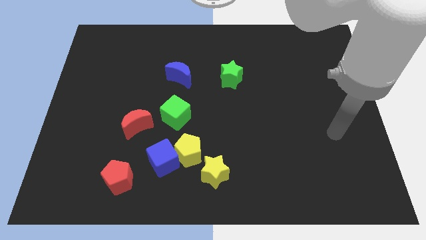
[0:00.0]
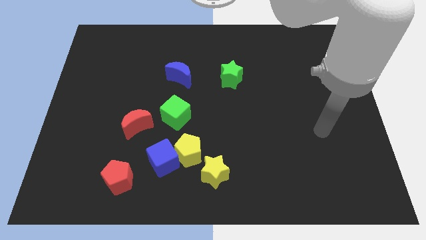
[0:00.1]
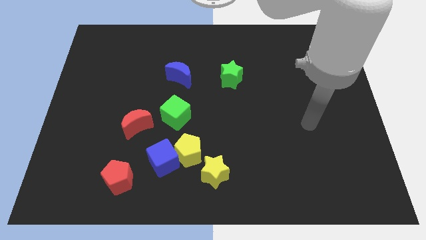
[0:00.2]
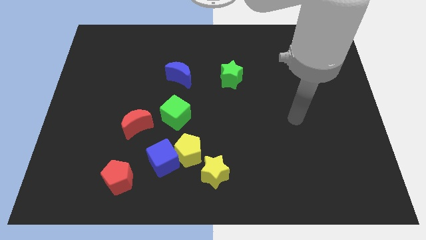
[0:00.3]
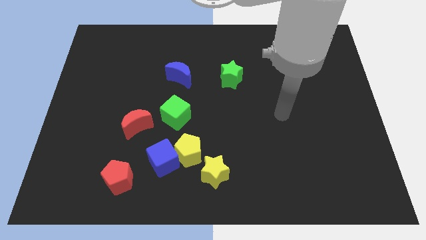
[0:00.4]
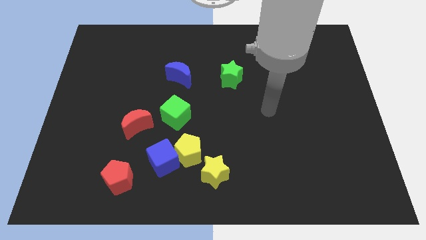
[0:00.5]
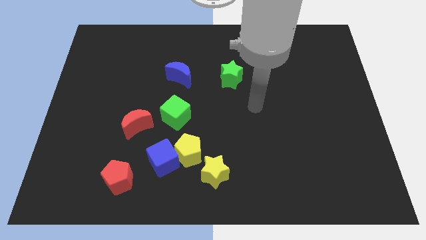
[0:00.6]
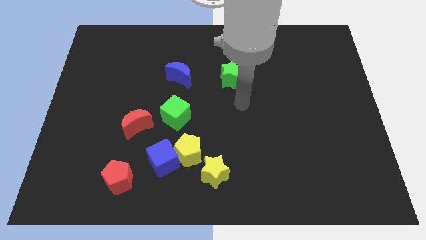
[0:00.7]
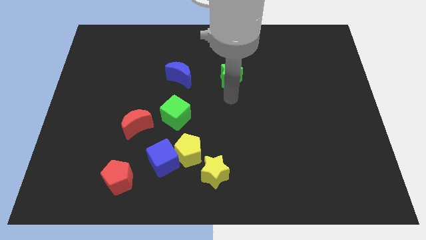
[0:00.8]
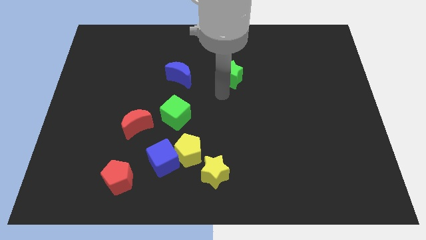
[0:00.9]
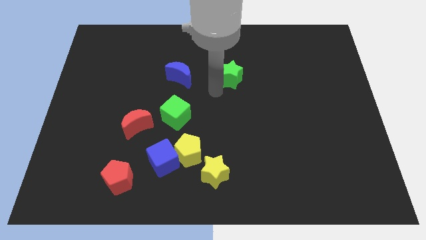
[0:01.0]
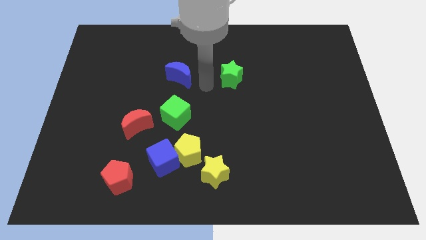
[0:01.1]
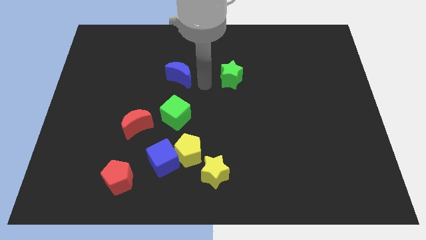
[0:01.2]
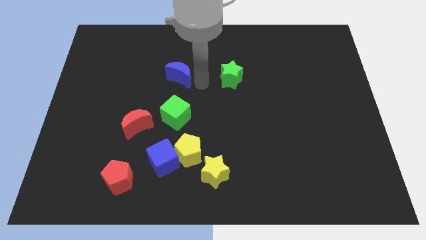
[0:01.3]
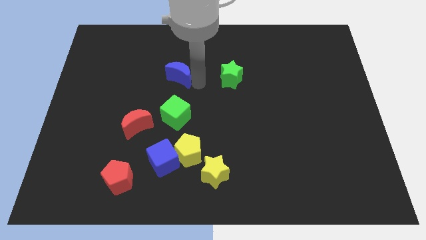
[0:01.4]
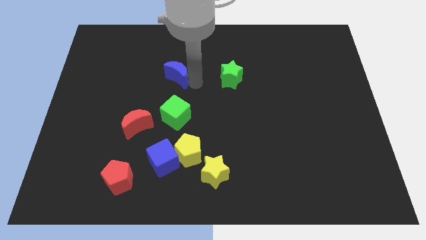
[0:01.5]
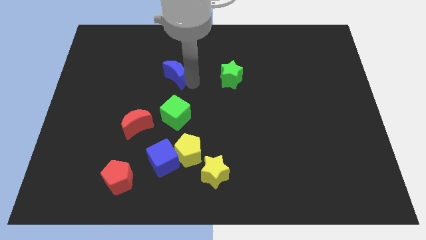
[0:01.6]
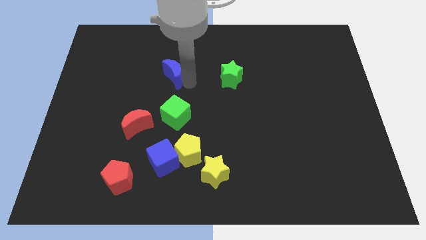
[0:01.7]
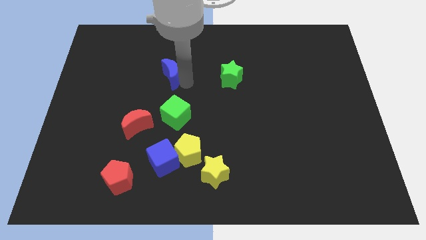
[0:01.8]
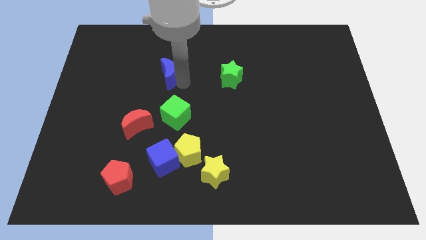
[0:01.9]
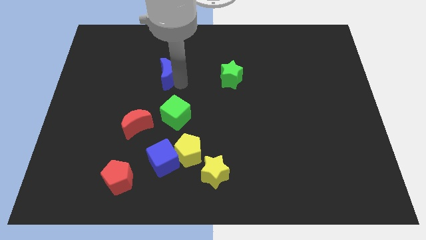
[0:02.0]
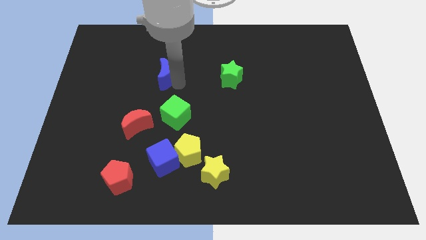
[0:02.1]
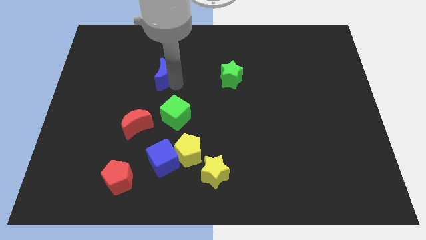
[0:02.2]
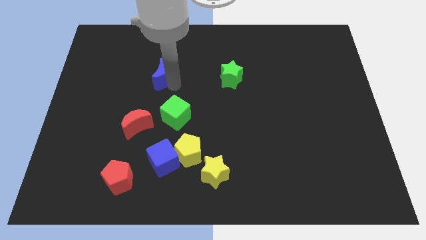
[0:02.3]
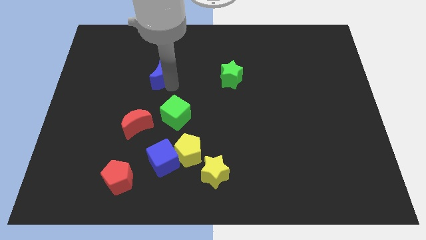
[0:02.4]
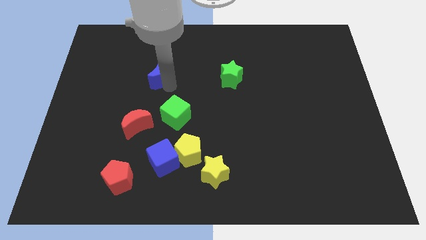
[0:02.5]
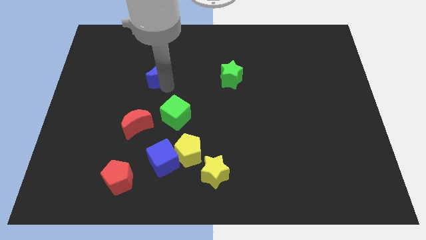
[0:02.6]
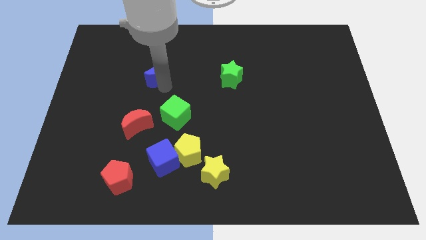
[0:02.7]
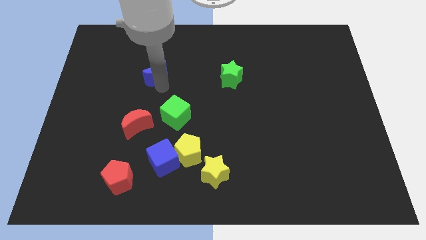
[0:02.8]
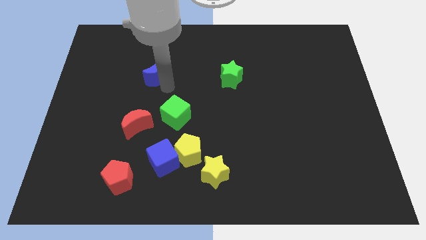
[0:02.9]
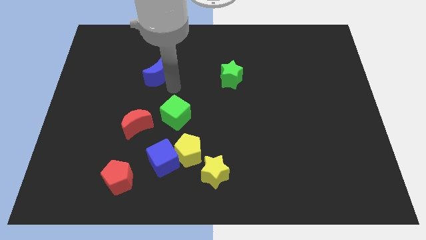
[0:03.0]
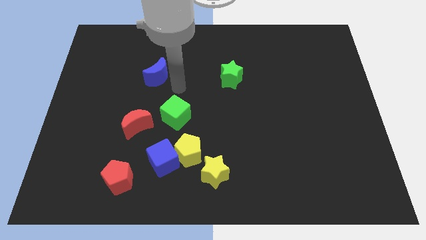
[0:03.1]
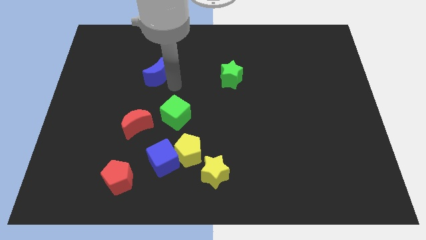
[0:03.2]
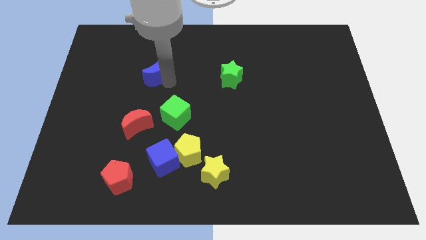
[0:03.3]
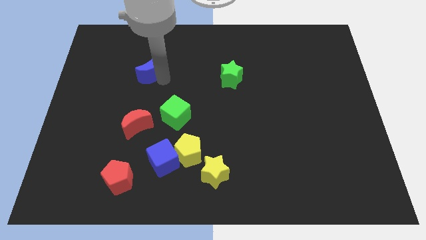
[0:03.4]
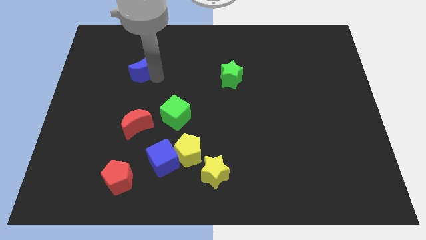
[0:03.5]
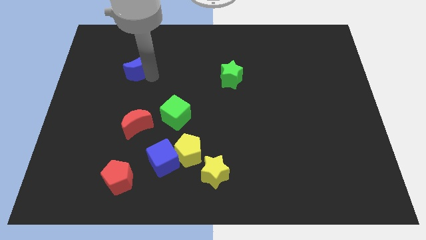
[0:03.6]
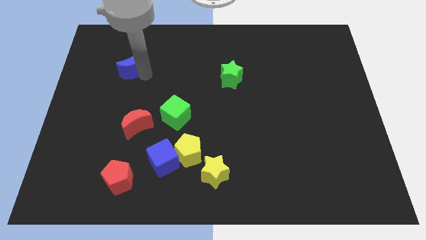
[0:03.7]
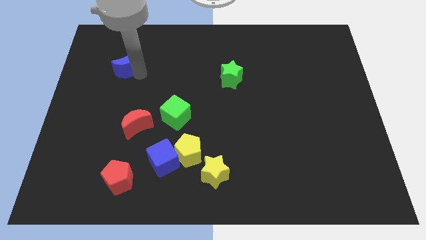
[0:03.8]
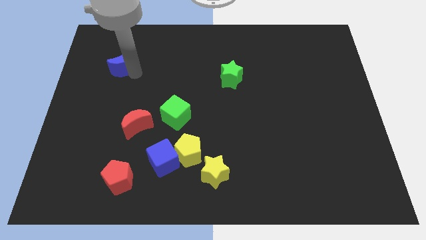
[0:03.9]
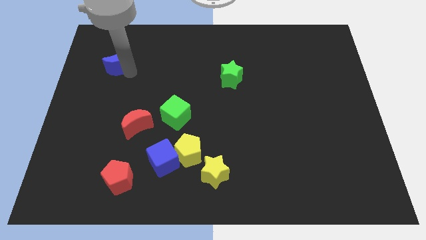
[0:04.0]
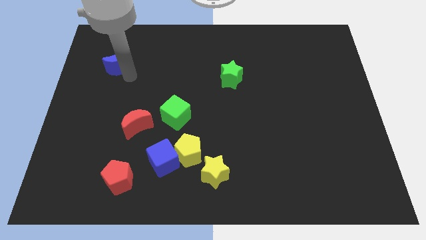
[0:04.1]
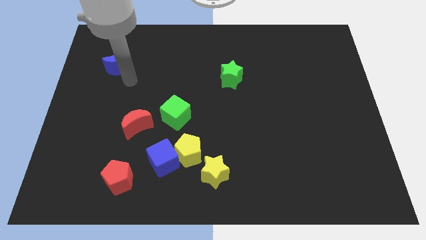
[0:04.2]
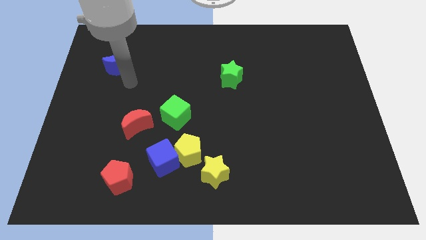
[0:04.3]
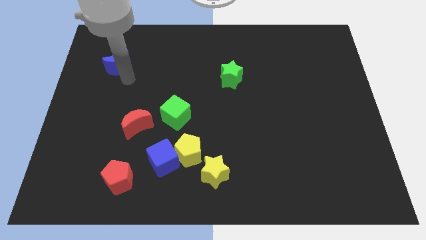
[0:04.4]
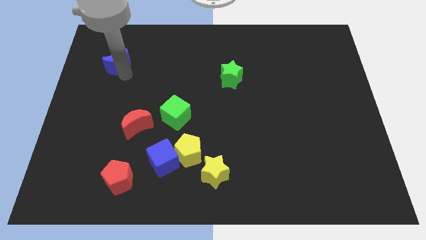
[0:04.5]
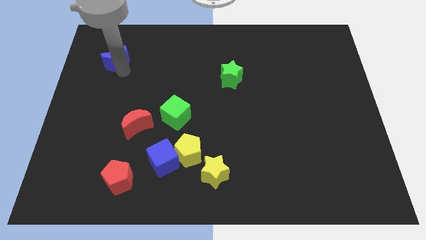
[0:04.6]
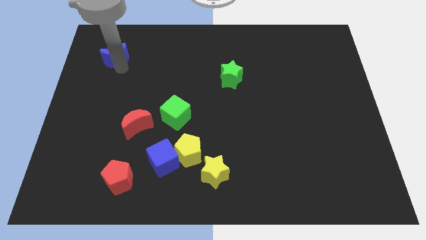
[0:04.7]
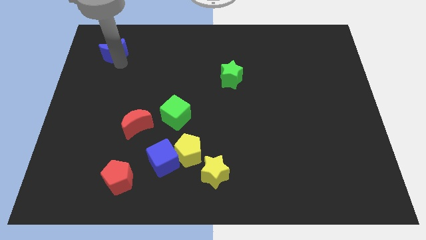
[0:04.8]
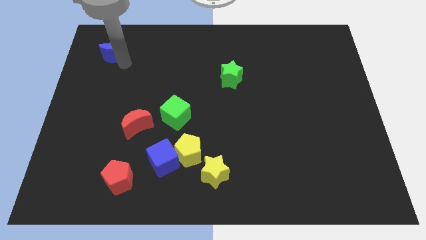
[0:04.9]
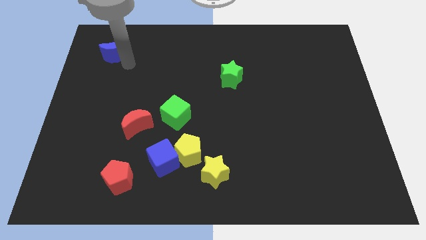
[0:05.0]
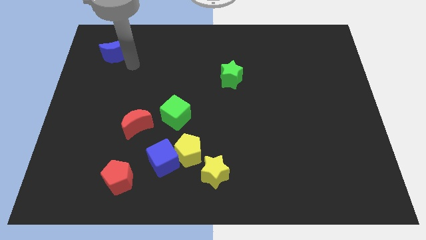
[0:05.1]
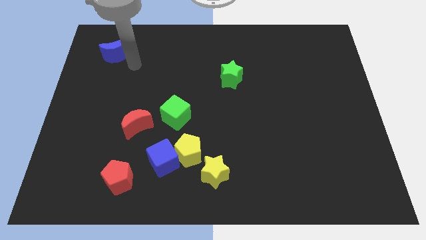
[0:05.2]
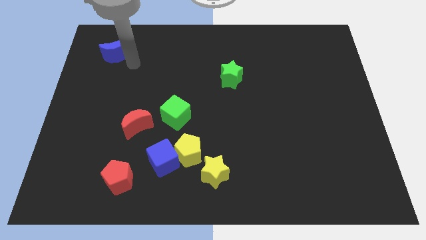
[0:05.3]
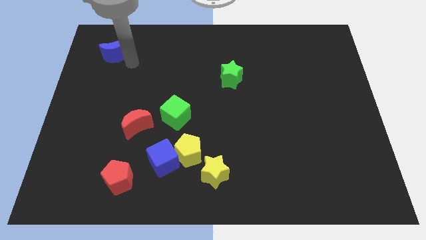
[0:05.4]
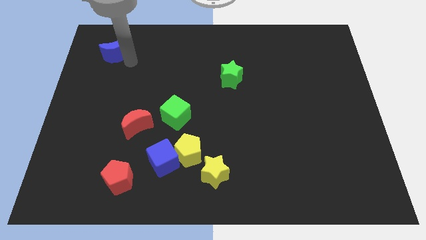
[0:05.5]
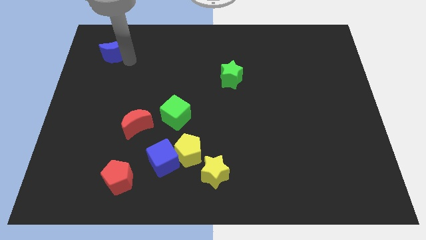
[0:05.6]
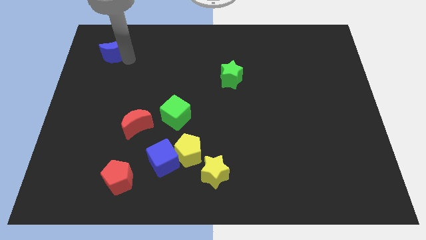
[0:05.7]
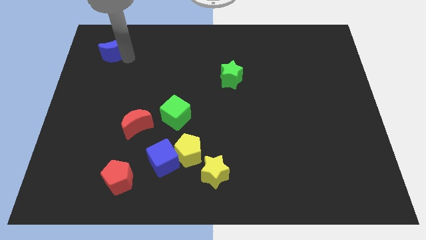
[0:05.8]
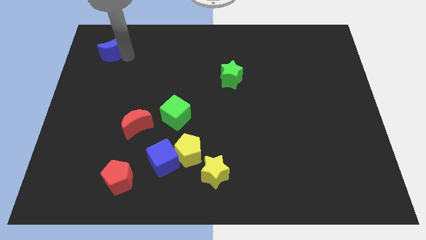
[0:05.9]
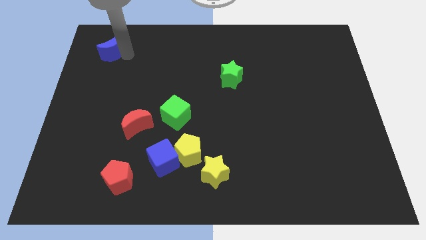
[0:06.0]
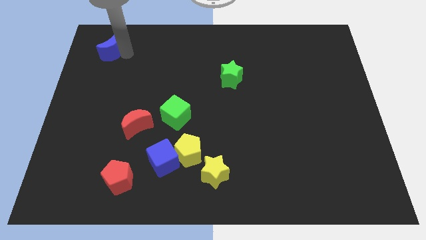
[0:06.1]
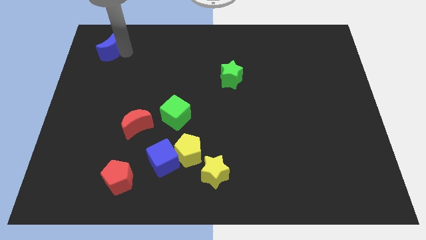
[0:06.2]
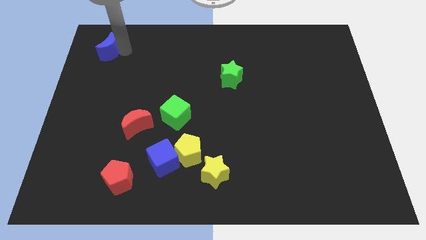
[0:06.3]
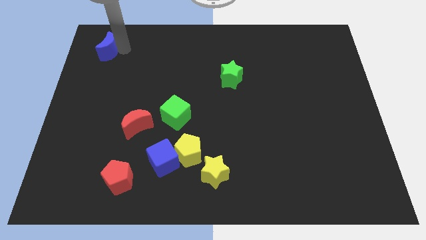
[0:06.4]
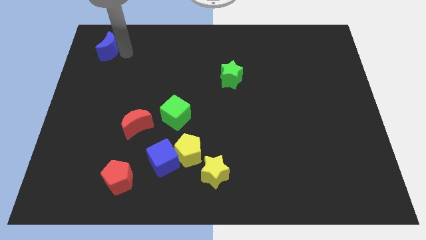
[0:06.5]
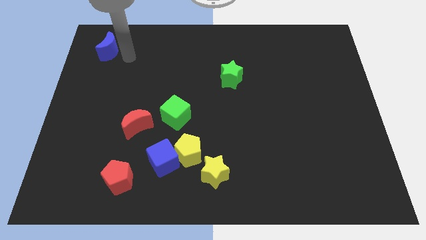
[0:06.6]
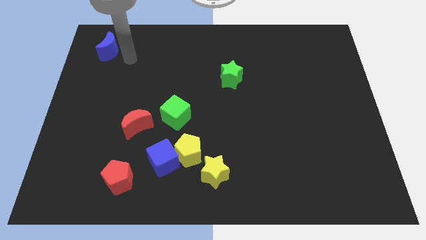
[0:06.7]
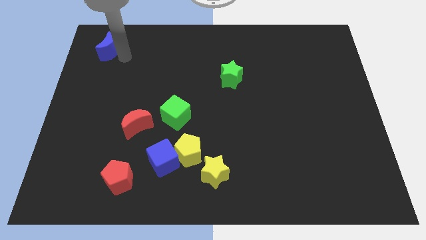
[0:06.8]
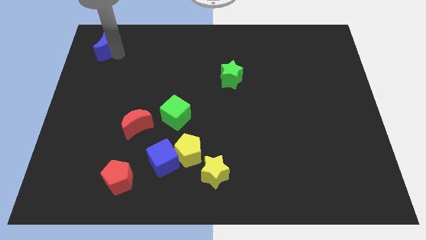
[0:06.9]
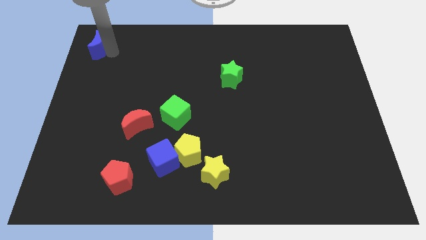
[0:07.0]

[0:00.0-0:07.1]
put the blue moon to the top left of the board
